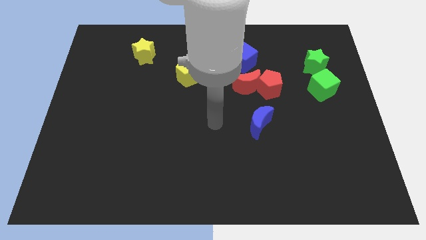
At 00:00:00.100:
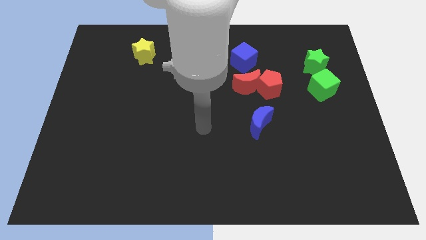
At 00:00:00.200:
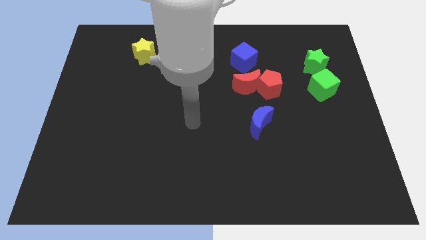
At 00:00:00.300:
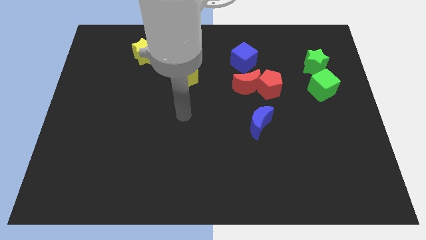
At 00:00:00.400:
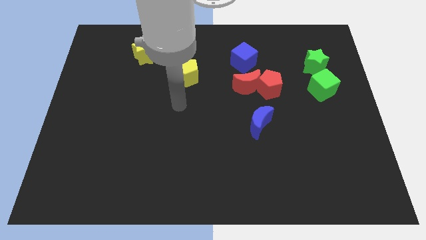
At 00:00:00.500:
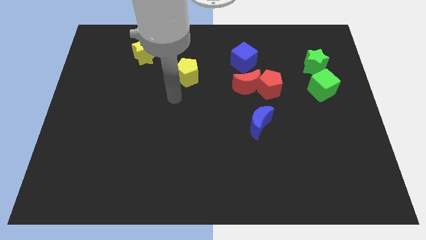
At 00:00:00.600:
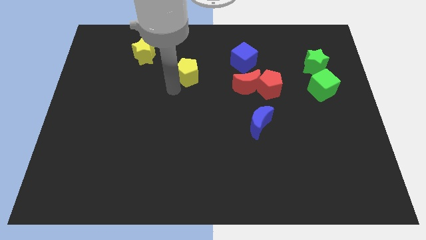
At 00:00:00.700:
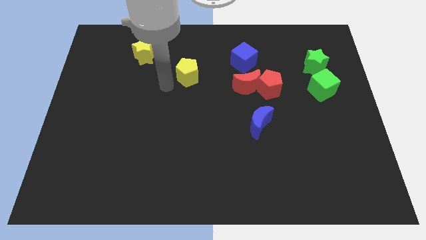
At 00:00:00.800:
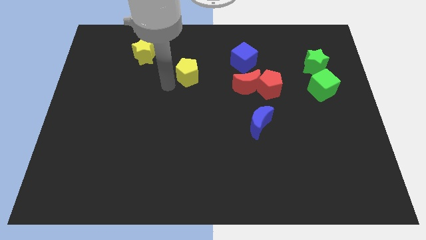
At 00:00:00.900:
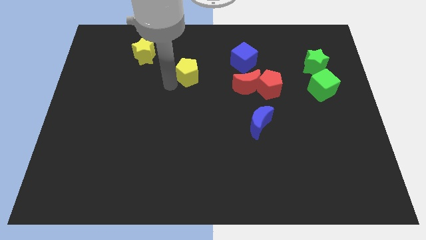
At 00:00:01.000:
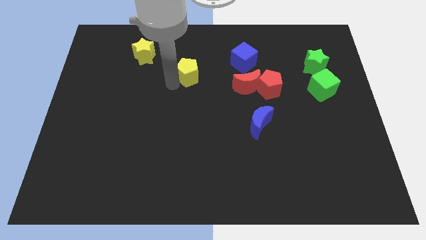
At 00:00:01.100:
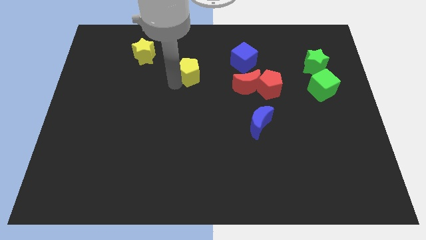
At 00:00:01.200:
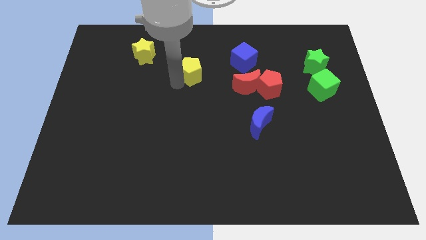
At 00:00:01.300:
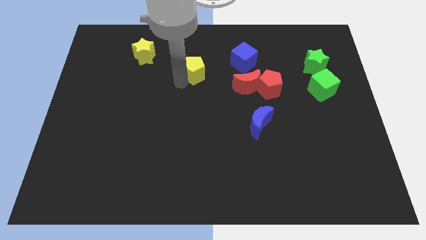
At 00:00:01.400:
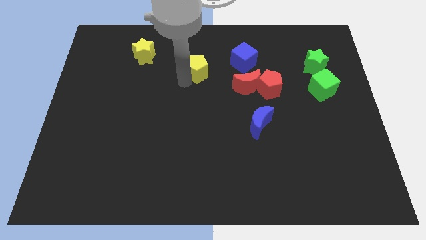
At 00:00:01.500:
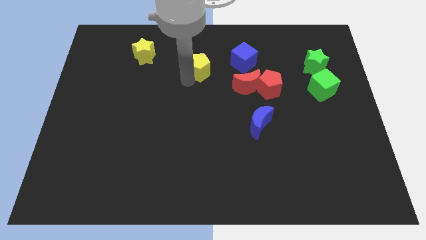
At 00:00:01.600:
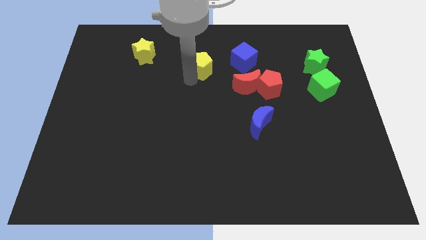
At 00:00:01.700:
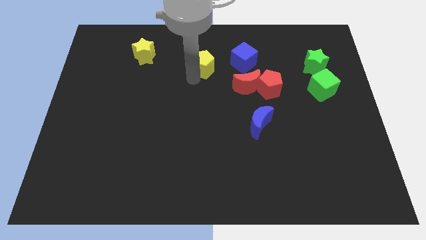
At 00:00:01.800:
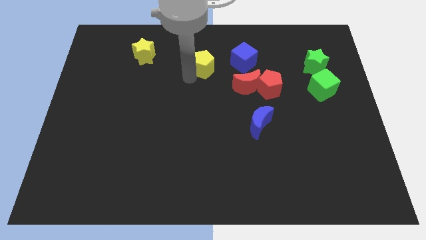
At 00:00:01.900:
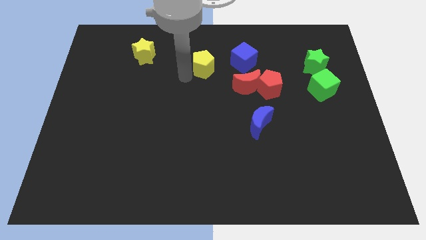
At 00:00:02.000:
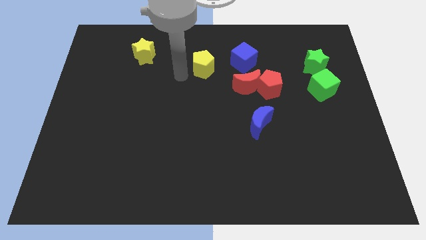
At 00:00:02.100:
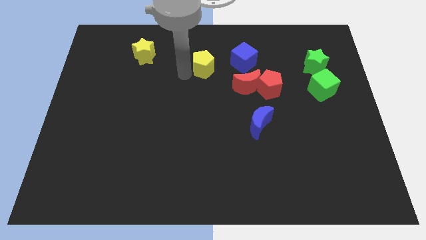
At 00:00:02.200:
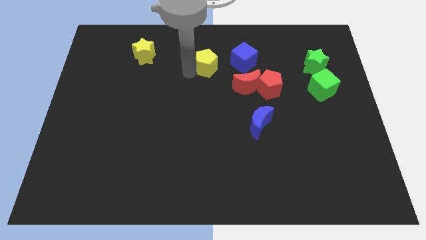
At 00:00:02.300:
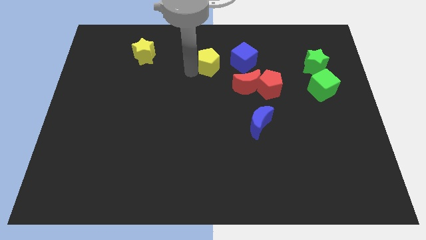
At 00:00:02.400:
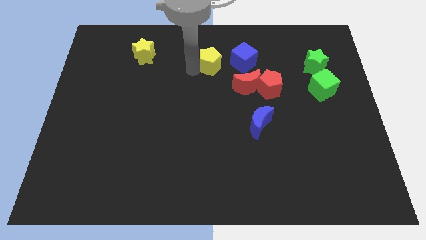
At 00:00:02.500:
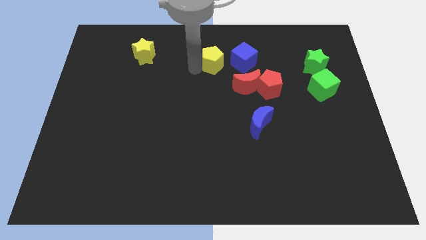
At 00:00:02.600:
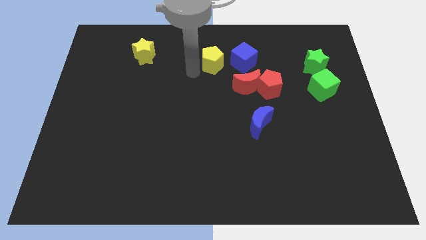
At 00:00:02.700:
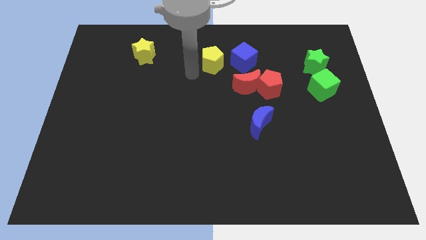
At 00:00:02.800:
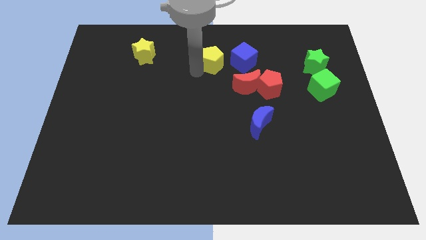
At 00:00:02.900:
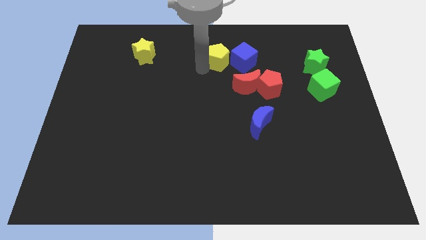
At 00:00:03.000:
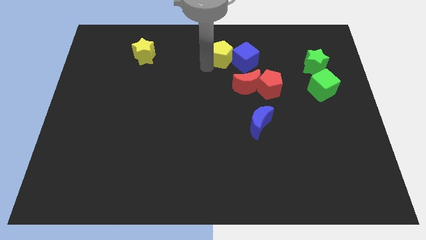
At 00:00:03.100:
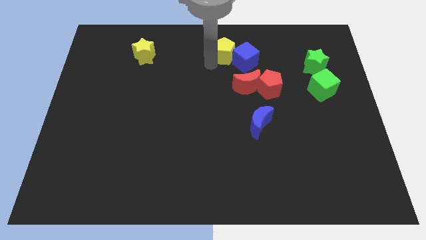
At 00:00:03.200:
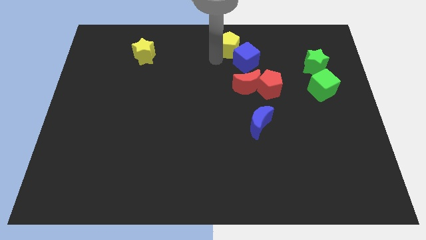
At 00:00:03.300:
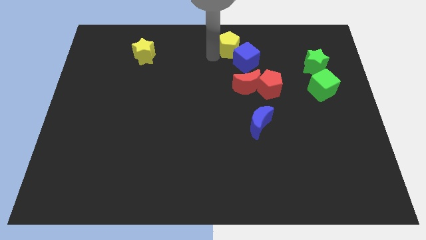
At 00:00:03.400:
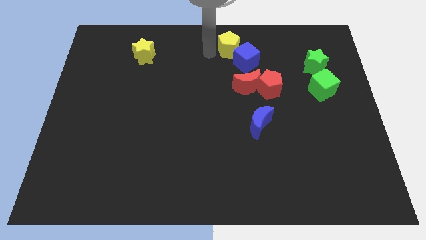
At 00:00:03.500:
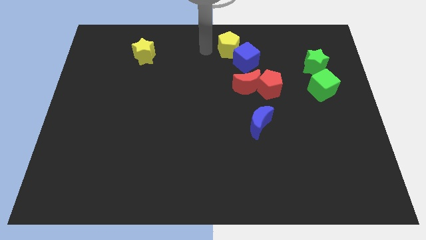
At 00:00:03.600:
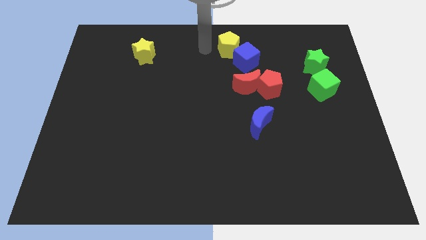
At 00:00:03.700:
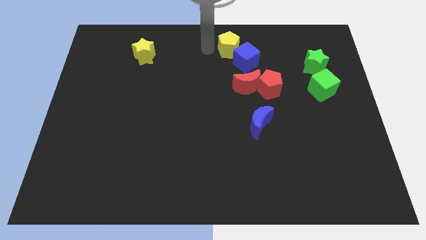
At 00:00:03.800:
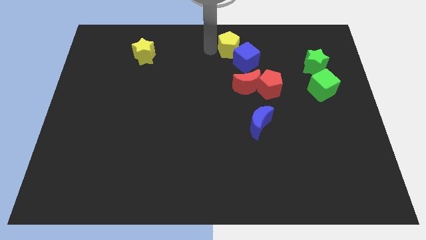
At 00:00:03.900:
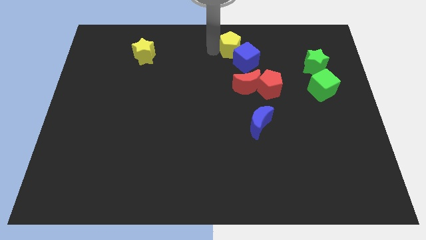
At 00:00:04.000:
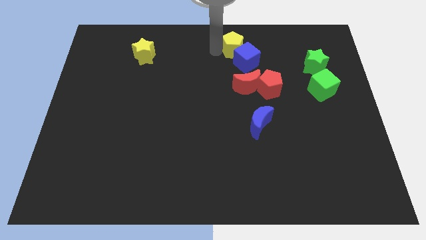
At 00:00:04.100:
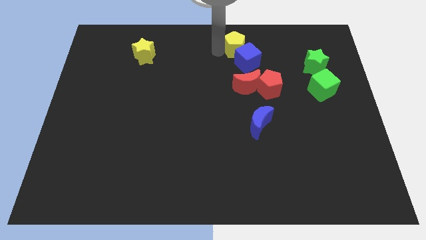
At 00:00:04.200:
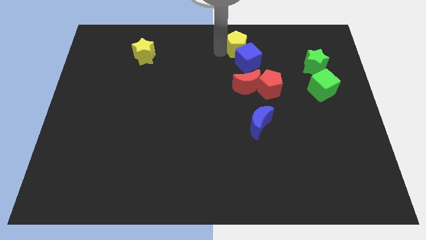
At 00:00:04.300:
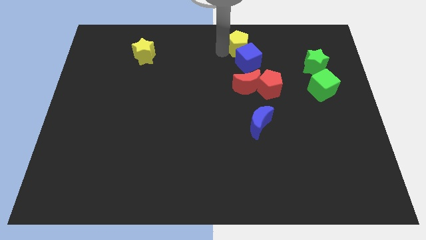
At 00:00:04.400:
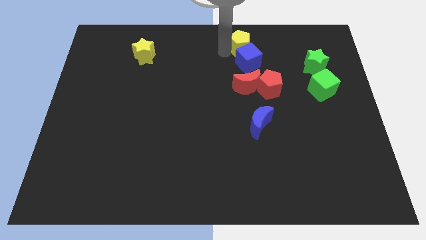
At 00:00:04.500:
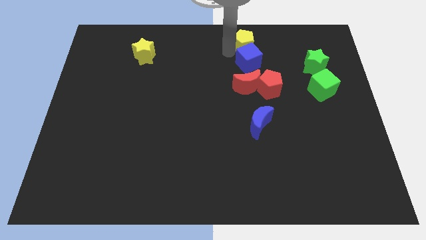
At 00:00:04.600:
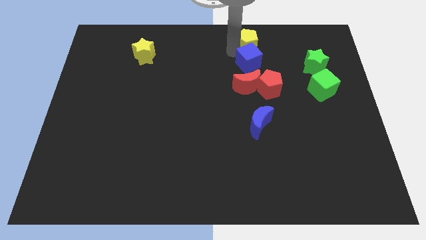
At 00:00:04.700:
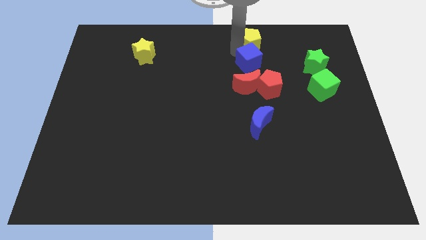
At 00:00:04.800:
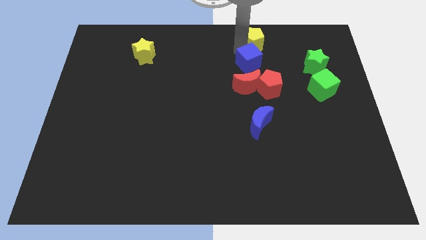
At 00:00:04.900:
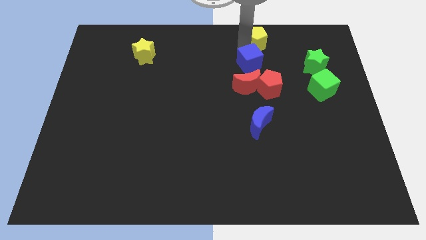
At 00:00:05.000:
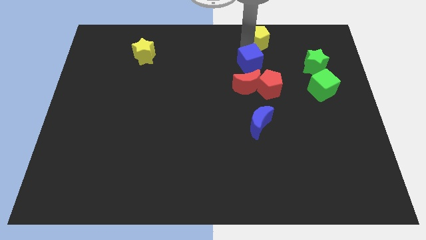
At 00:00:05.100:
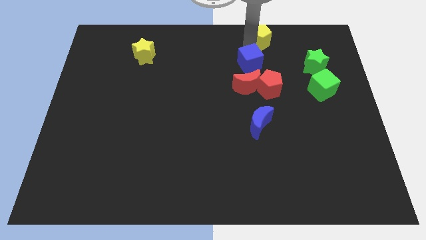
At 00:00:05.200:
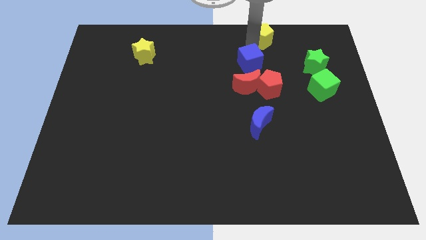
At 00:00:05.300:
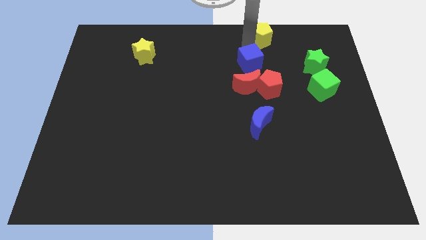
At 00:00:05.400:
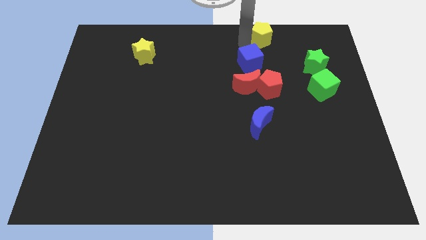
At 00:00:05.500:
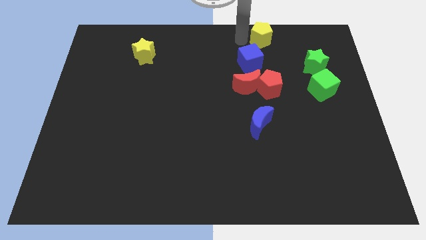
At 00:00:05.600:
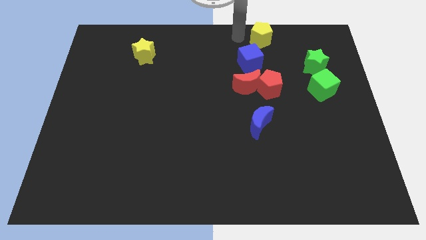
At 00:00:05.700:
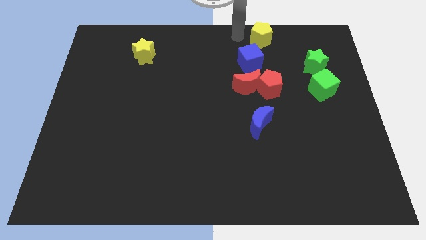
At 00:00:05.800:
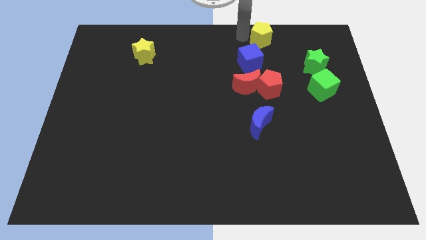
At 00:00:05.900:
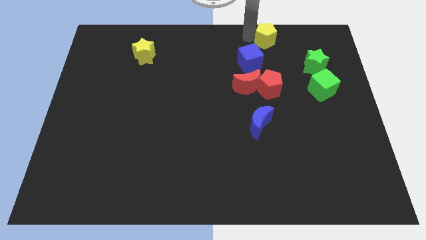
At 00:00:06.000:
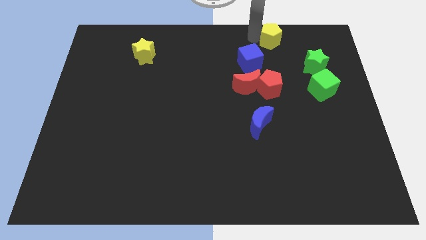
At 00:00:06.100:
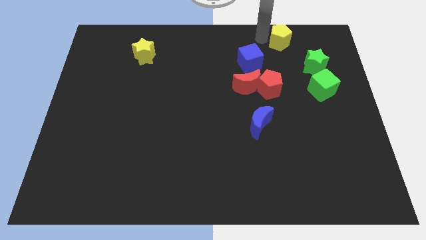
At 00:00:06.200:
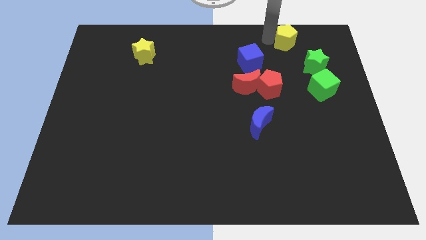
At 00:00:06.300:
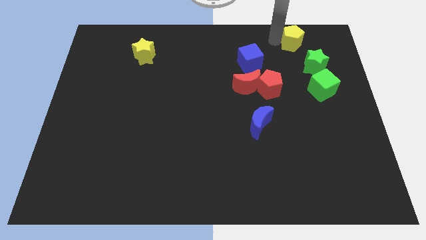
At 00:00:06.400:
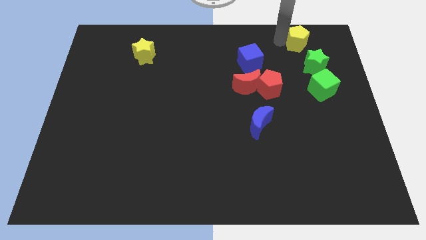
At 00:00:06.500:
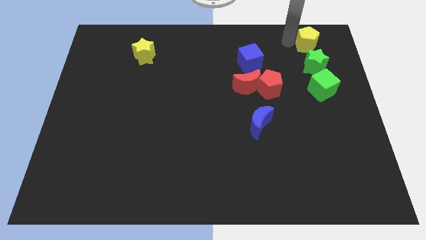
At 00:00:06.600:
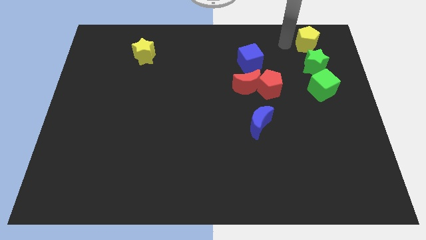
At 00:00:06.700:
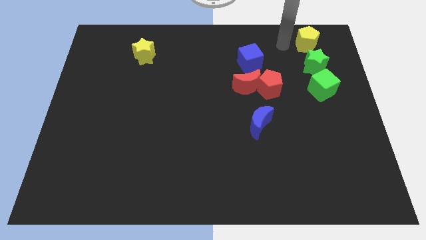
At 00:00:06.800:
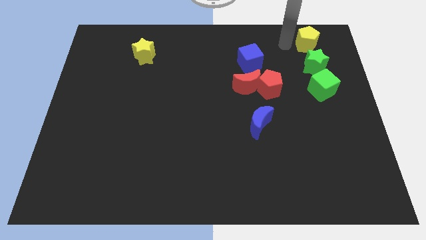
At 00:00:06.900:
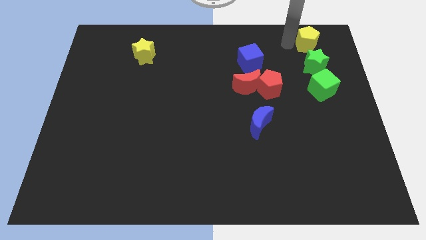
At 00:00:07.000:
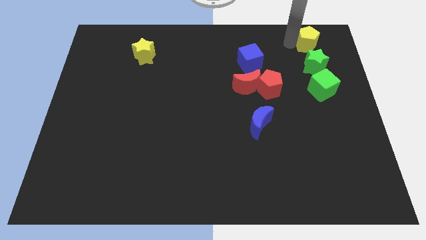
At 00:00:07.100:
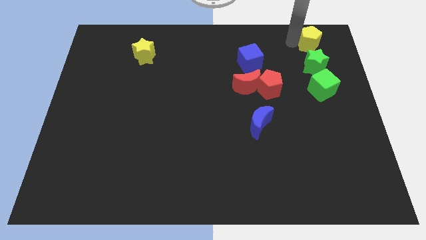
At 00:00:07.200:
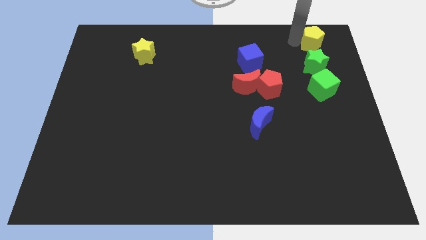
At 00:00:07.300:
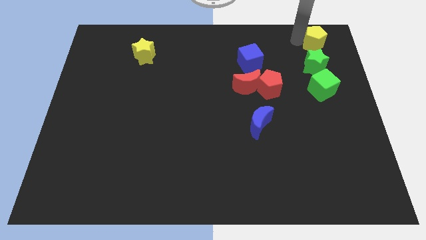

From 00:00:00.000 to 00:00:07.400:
push the yellow pentagon to the top right of the board
